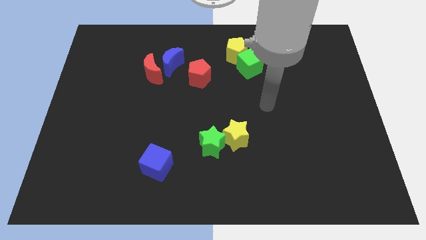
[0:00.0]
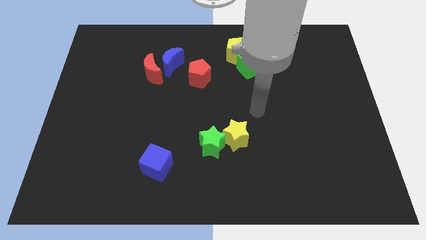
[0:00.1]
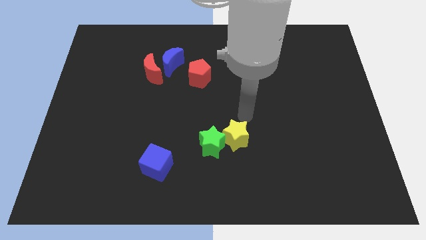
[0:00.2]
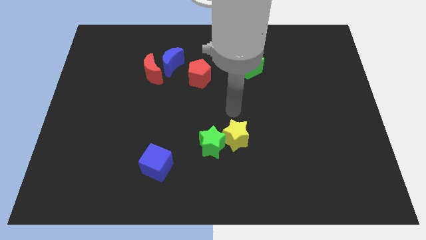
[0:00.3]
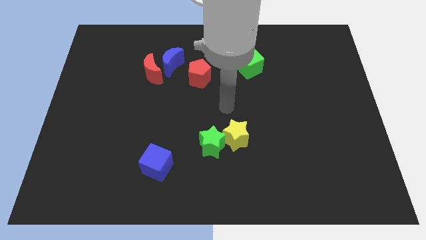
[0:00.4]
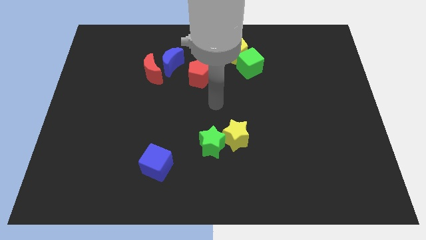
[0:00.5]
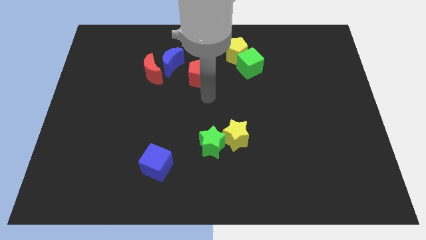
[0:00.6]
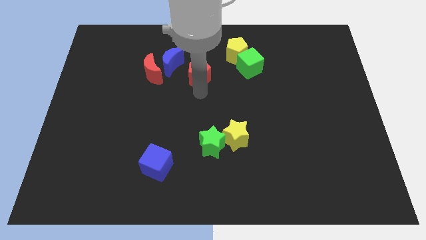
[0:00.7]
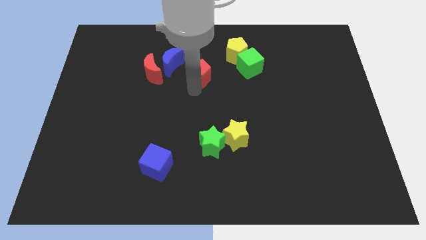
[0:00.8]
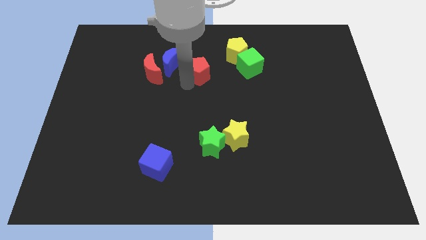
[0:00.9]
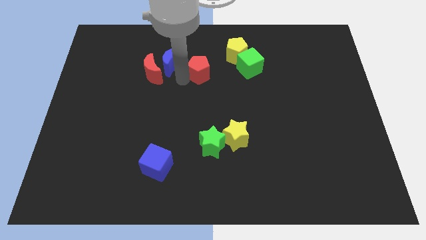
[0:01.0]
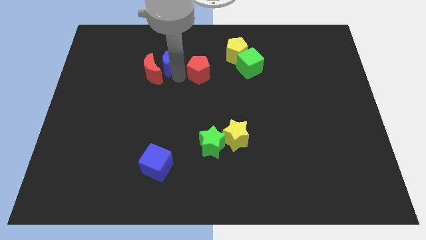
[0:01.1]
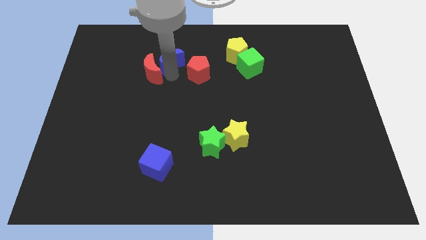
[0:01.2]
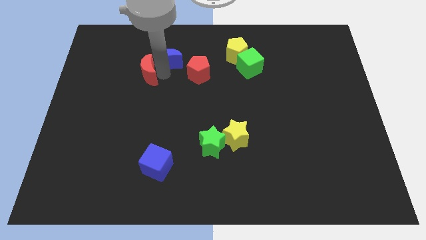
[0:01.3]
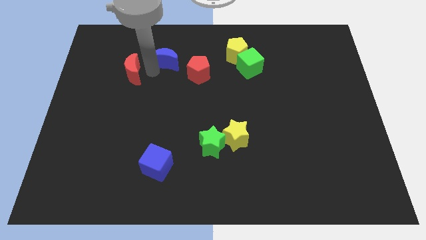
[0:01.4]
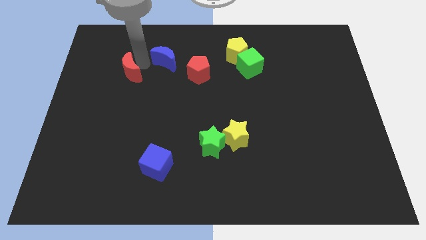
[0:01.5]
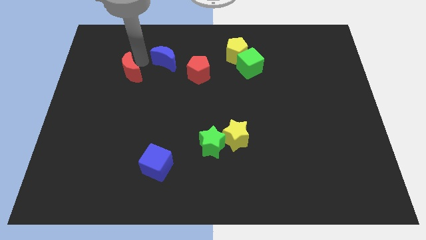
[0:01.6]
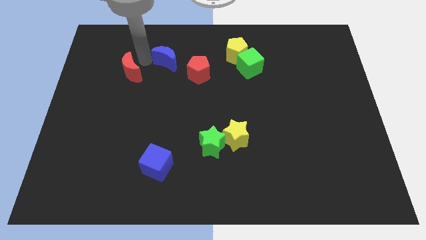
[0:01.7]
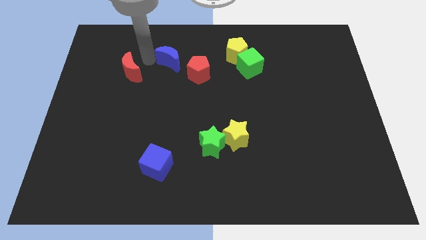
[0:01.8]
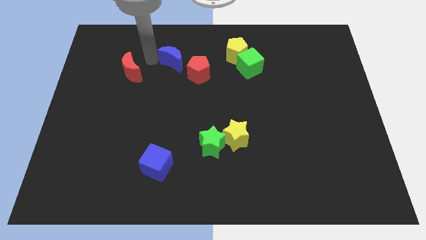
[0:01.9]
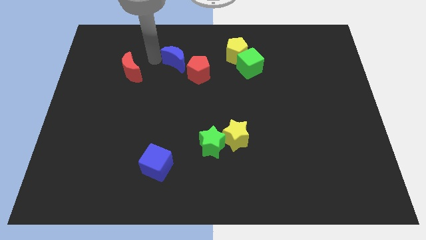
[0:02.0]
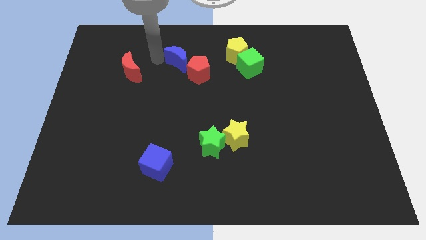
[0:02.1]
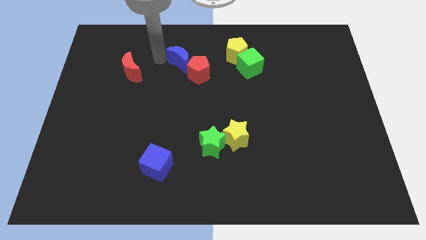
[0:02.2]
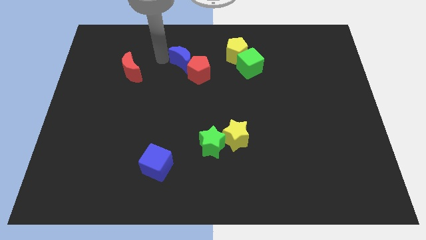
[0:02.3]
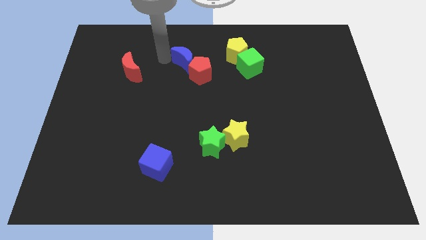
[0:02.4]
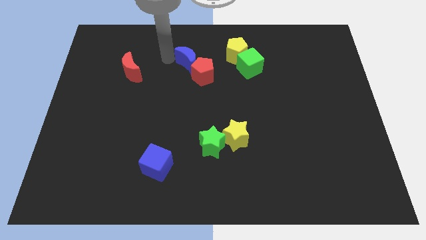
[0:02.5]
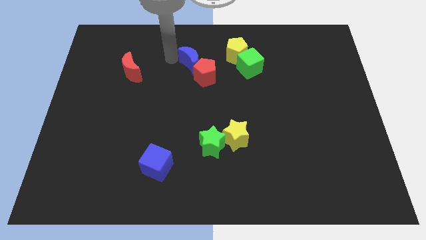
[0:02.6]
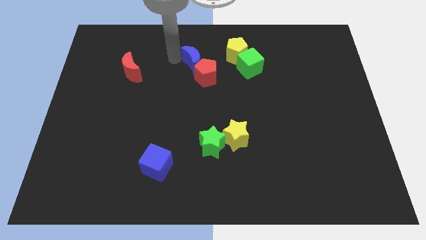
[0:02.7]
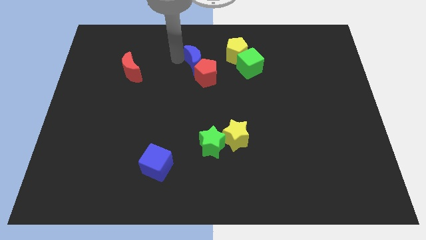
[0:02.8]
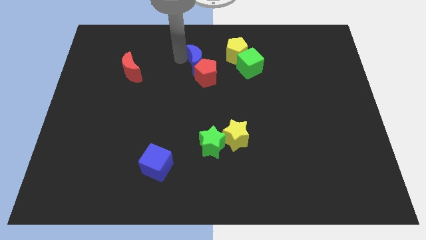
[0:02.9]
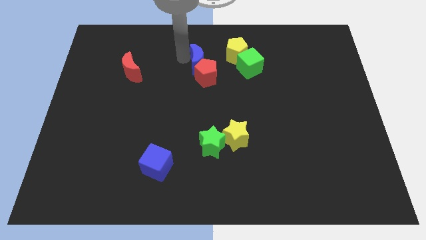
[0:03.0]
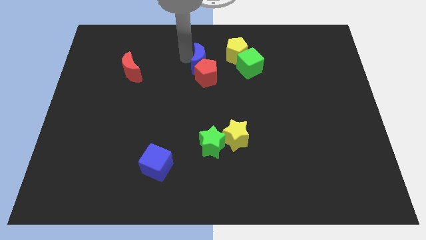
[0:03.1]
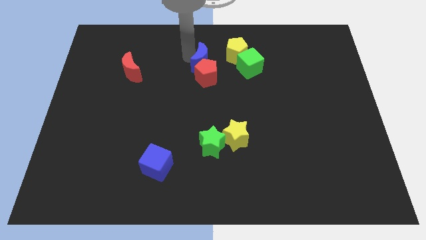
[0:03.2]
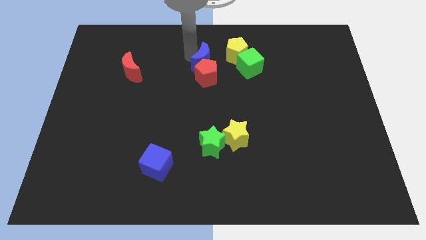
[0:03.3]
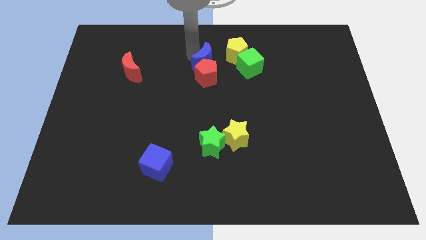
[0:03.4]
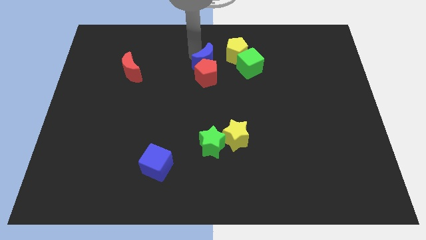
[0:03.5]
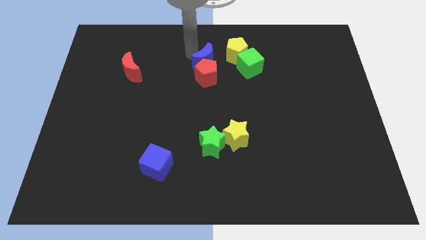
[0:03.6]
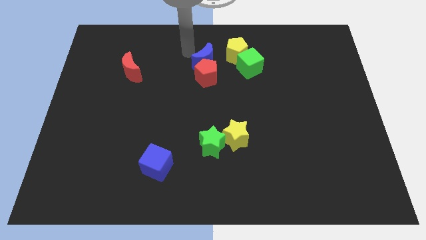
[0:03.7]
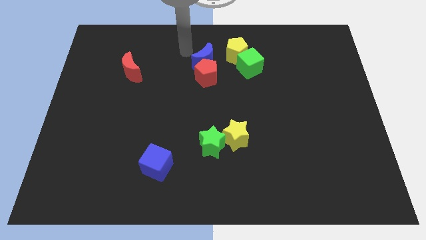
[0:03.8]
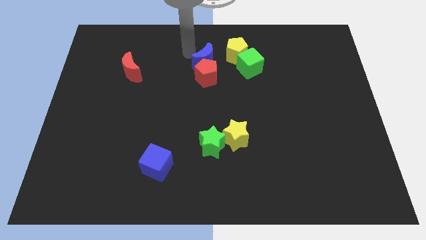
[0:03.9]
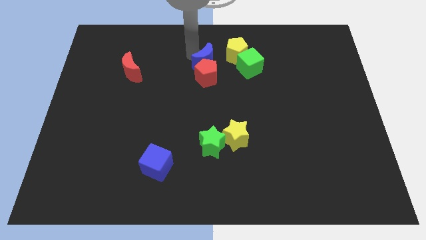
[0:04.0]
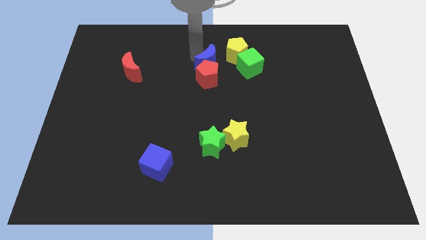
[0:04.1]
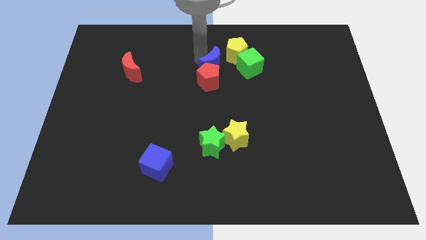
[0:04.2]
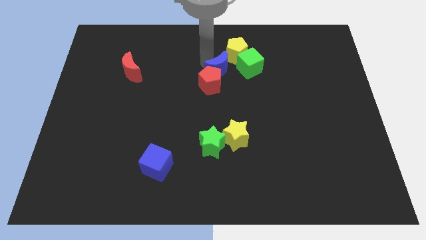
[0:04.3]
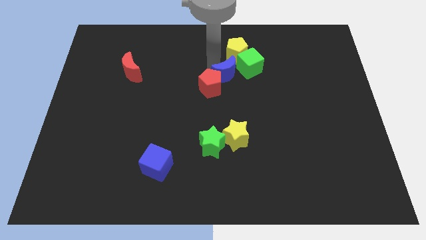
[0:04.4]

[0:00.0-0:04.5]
push the blue moon to the right side of the red pentagon

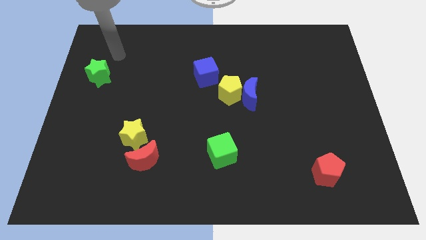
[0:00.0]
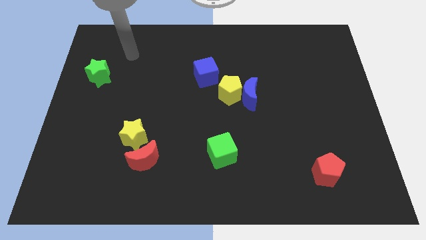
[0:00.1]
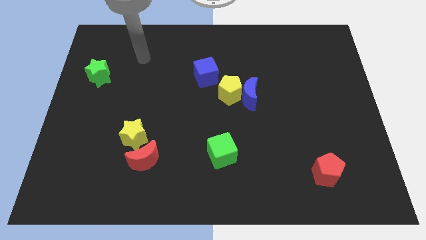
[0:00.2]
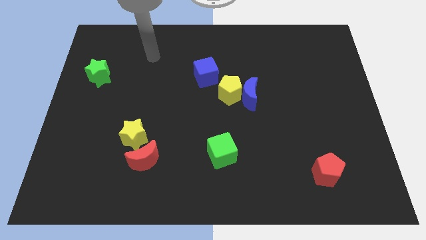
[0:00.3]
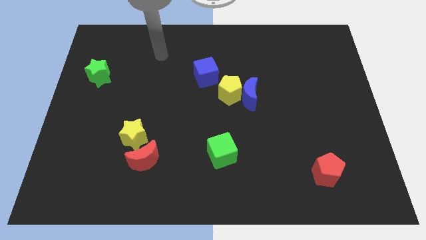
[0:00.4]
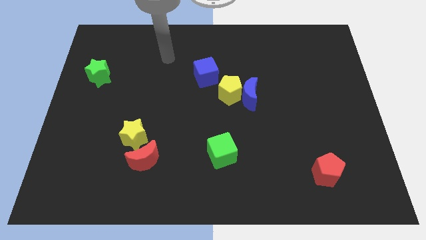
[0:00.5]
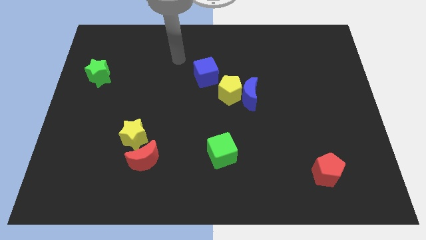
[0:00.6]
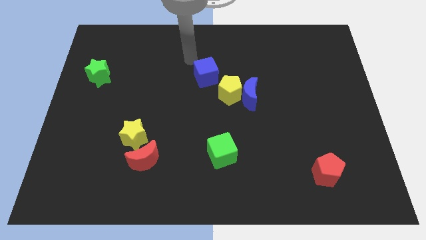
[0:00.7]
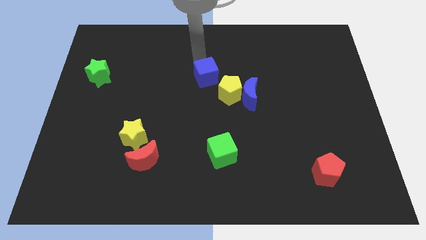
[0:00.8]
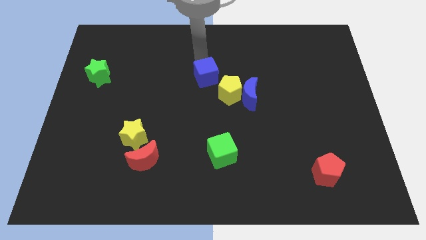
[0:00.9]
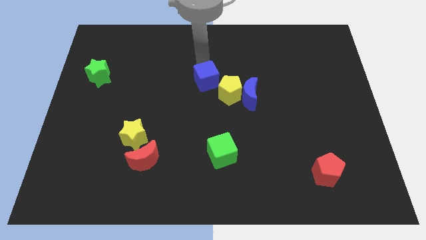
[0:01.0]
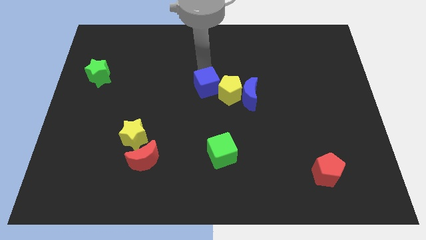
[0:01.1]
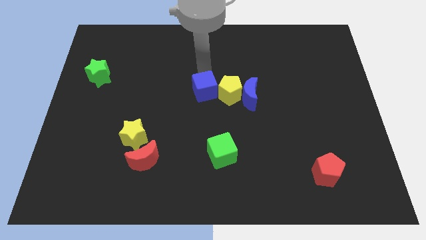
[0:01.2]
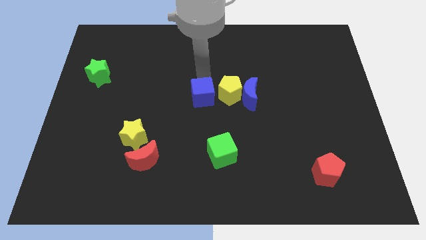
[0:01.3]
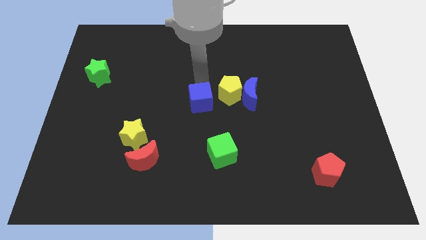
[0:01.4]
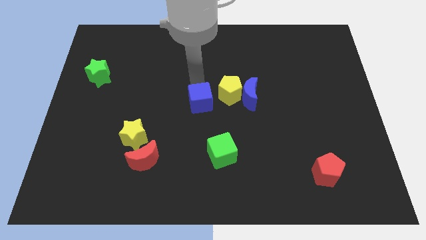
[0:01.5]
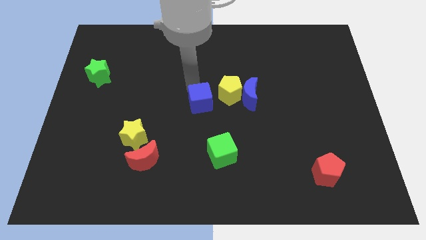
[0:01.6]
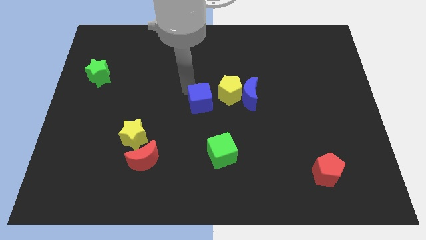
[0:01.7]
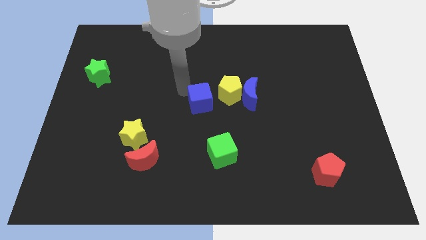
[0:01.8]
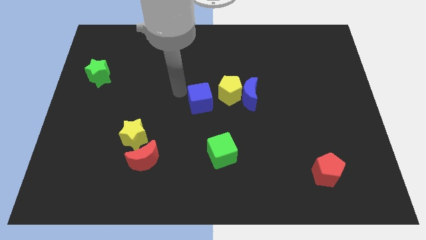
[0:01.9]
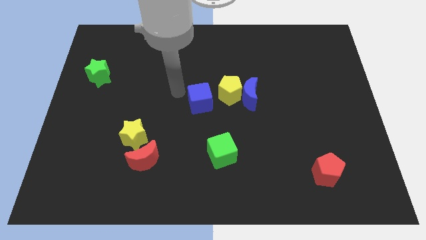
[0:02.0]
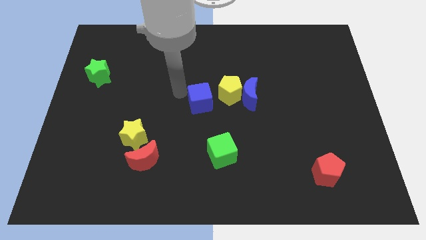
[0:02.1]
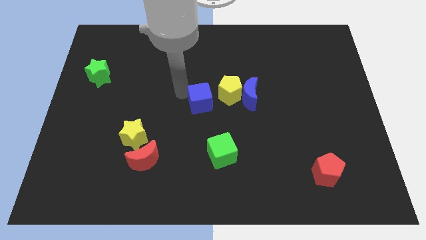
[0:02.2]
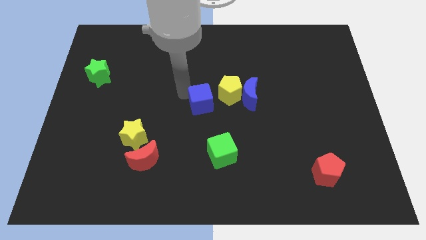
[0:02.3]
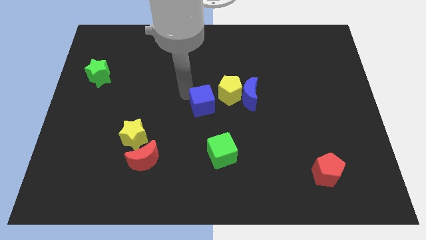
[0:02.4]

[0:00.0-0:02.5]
move the blue cube to the top of the green cube

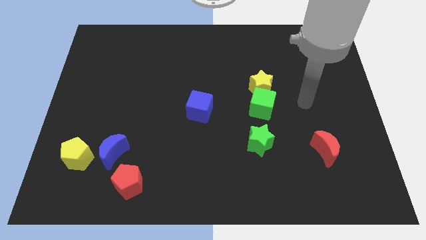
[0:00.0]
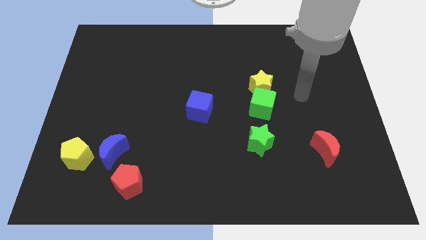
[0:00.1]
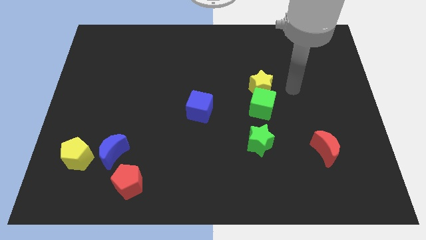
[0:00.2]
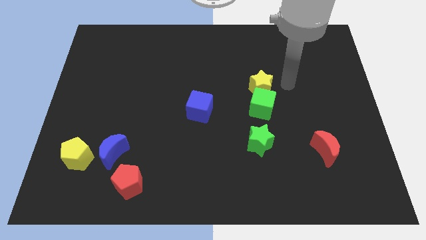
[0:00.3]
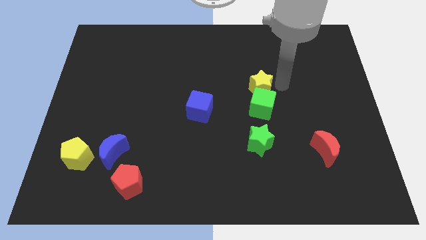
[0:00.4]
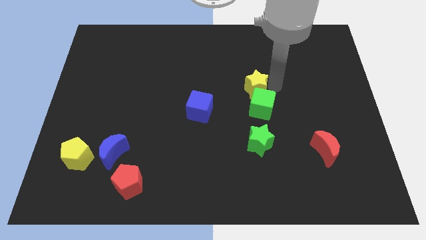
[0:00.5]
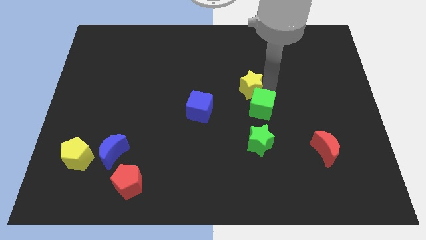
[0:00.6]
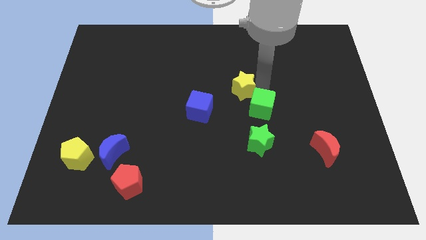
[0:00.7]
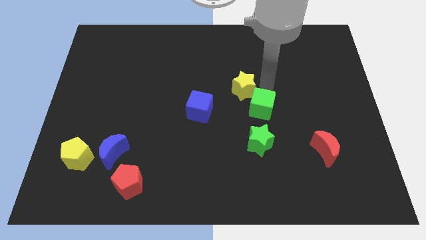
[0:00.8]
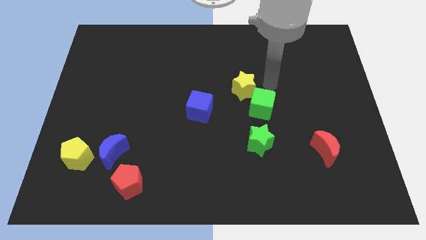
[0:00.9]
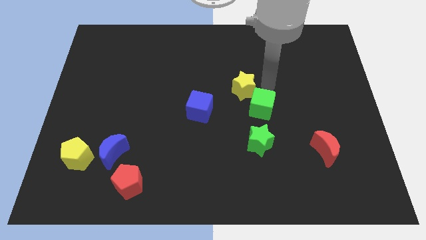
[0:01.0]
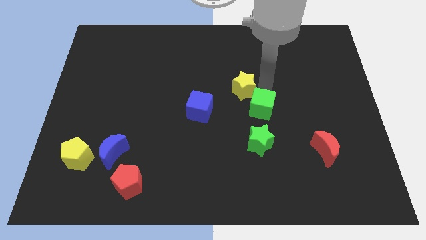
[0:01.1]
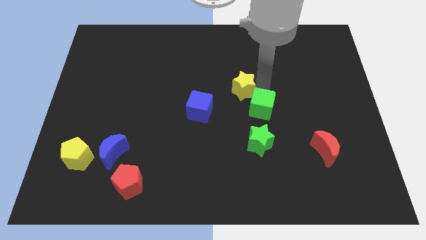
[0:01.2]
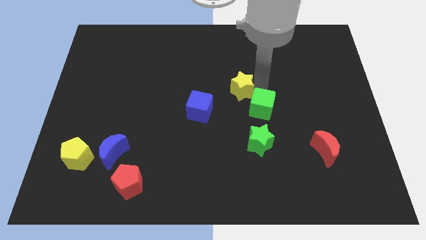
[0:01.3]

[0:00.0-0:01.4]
move the yellow star diagonally up and to the right of the blue cube
